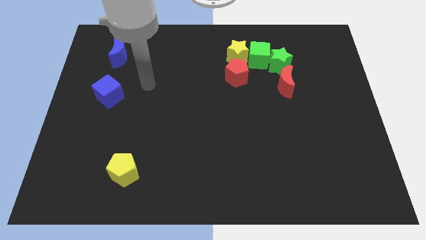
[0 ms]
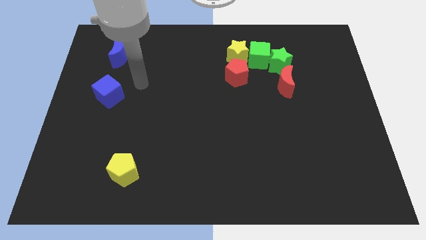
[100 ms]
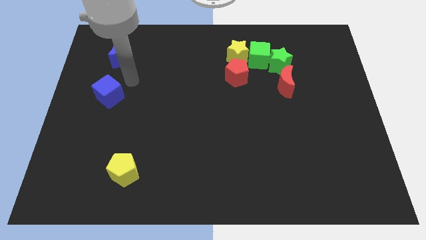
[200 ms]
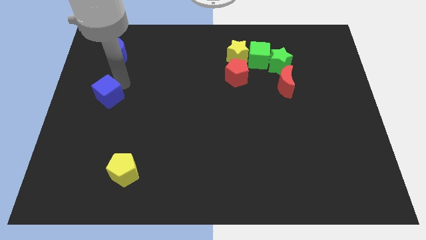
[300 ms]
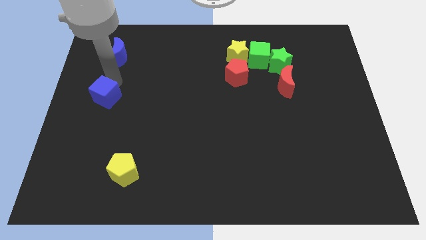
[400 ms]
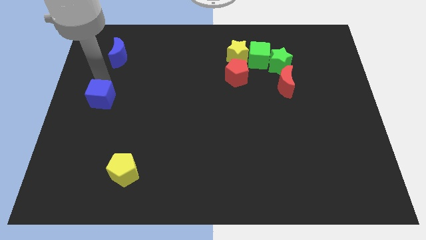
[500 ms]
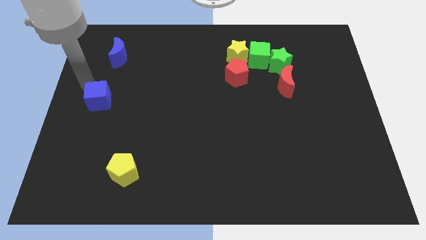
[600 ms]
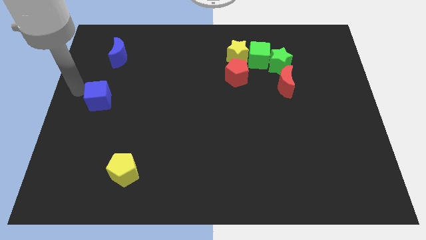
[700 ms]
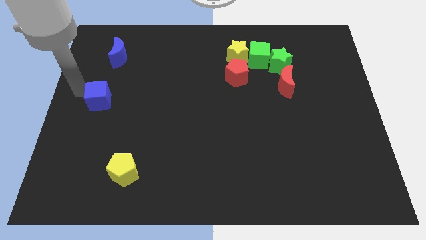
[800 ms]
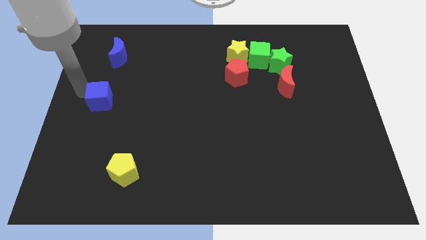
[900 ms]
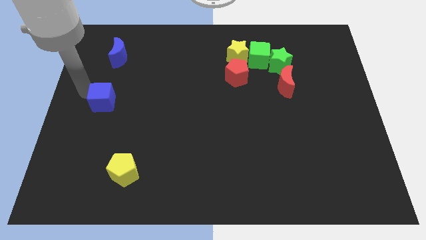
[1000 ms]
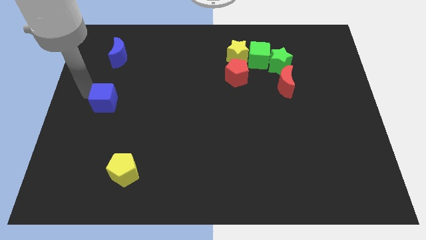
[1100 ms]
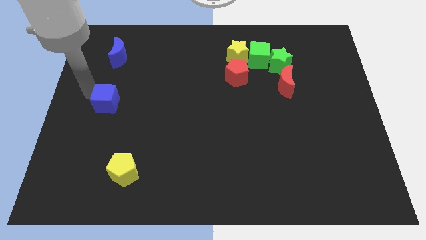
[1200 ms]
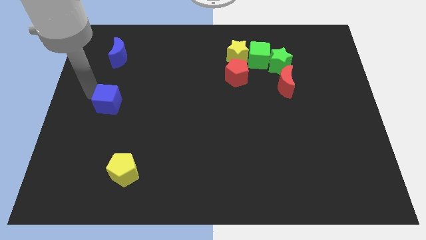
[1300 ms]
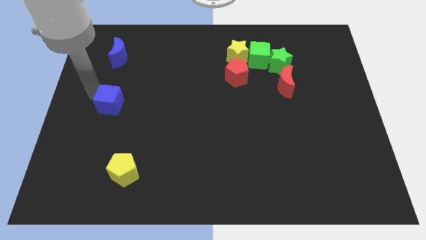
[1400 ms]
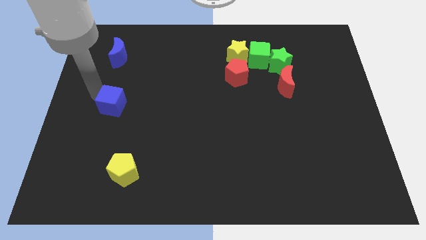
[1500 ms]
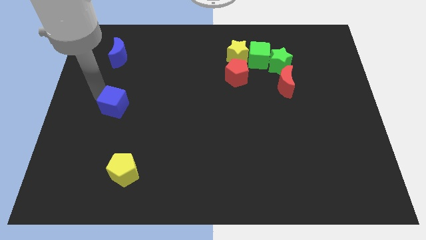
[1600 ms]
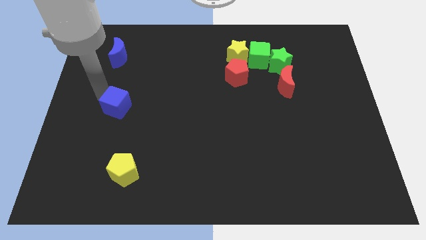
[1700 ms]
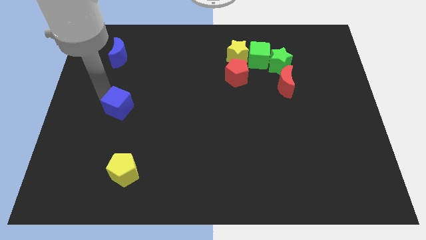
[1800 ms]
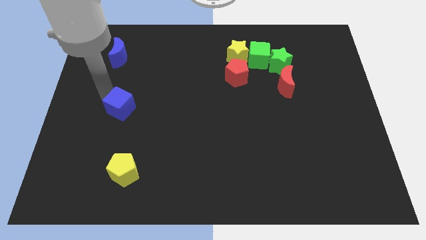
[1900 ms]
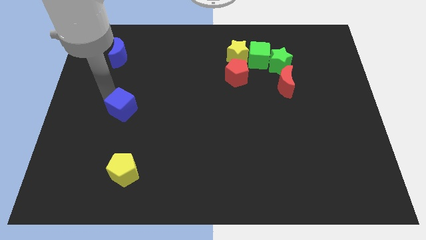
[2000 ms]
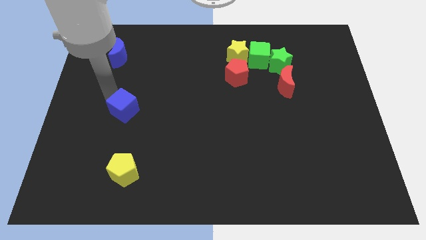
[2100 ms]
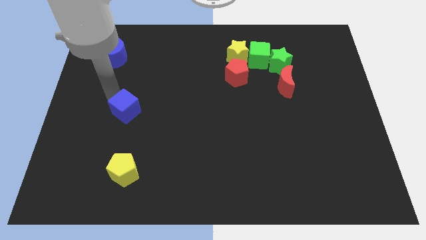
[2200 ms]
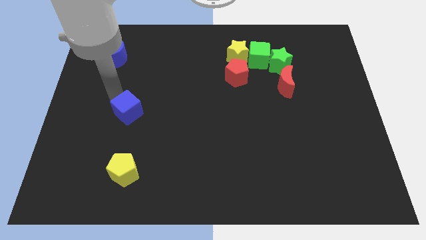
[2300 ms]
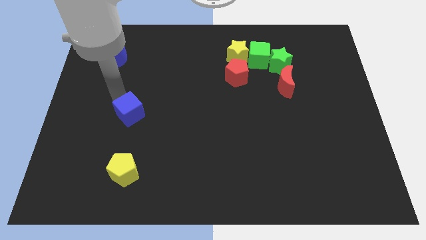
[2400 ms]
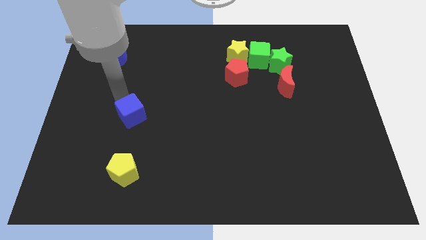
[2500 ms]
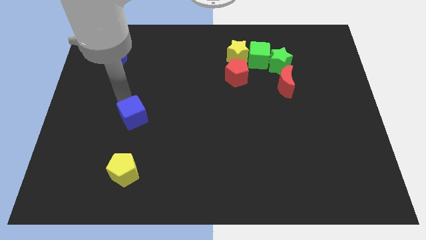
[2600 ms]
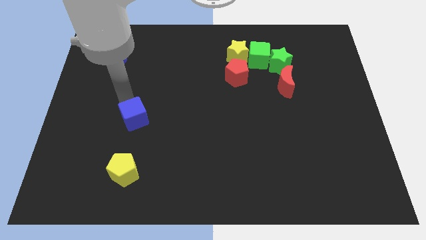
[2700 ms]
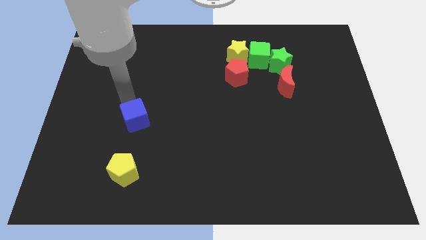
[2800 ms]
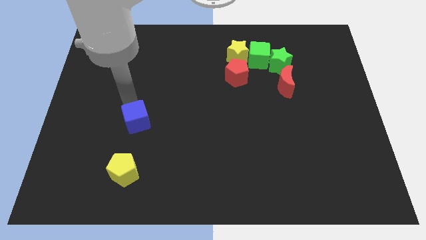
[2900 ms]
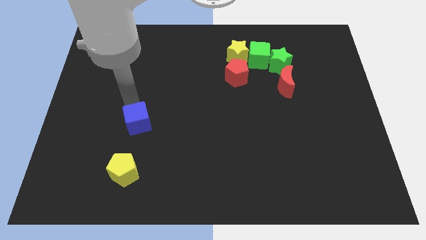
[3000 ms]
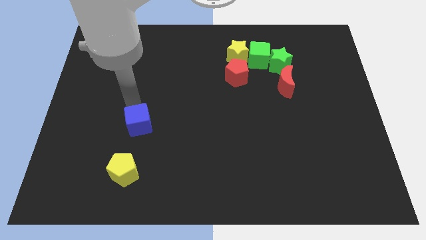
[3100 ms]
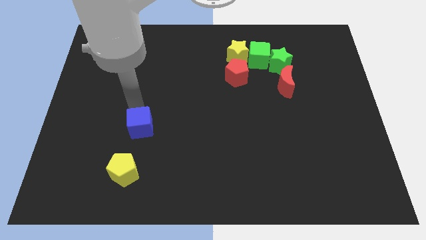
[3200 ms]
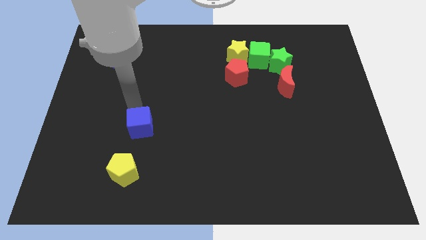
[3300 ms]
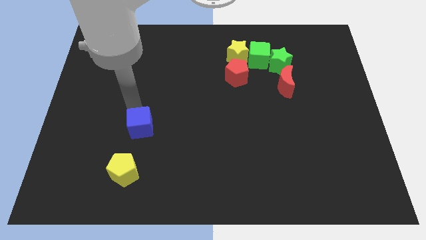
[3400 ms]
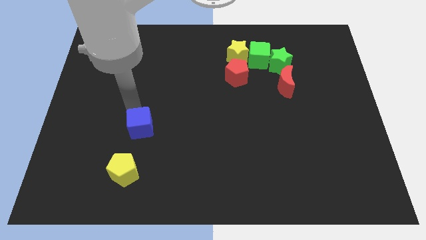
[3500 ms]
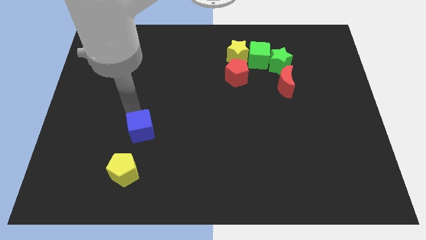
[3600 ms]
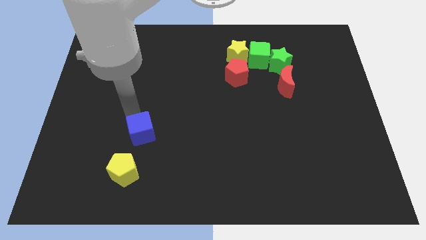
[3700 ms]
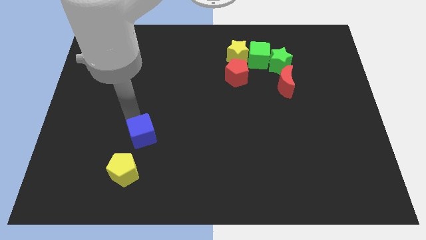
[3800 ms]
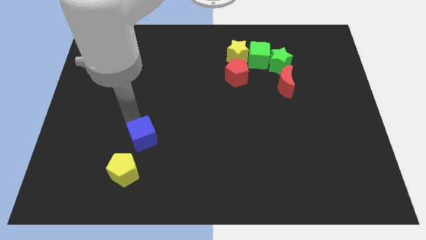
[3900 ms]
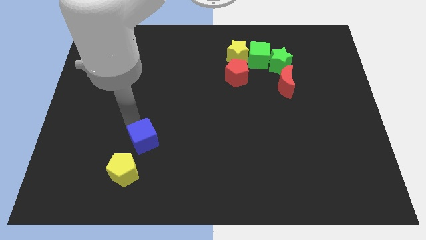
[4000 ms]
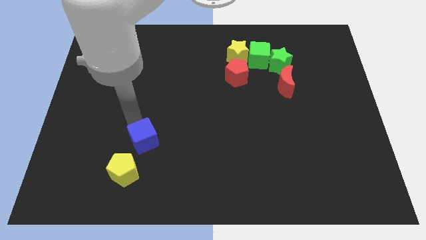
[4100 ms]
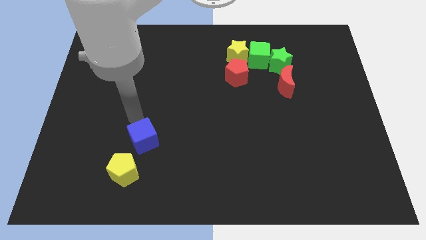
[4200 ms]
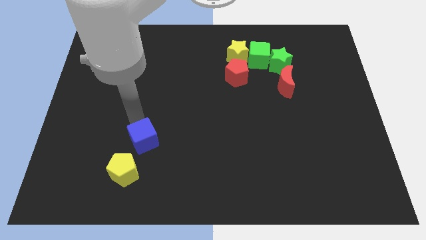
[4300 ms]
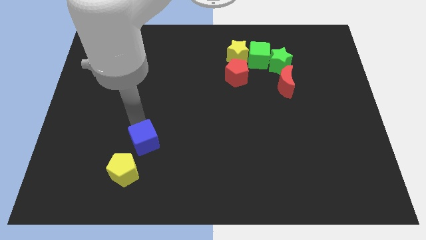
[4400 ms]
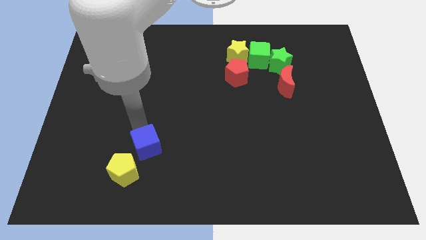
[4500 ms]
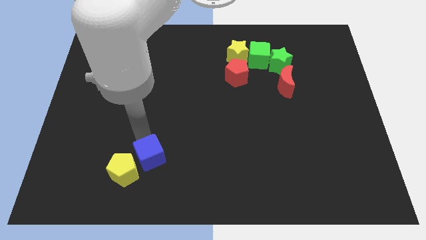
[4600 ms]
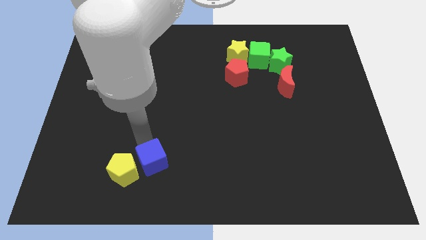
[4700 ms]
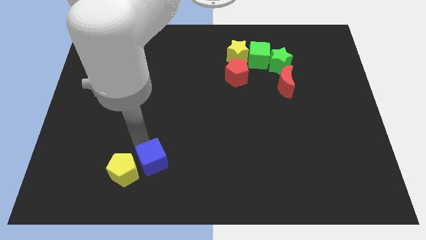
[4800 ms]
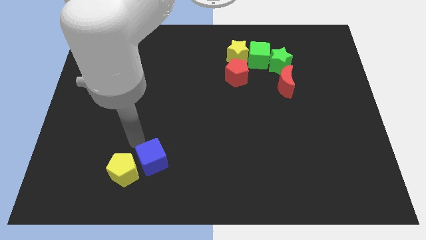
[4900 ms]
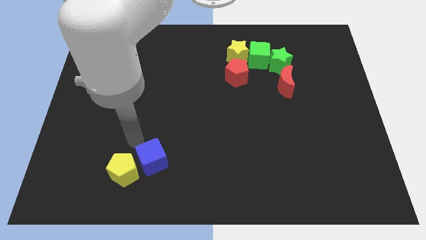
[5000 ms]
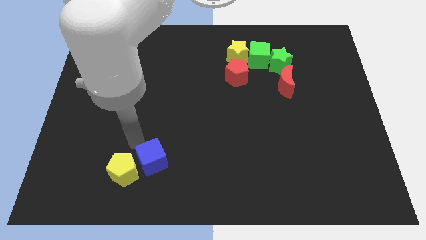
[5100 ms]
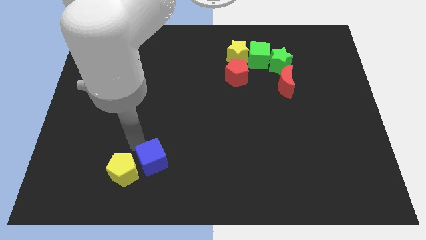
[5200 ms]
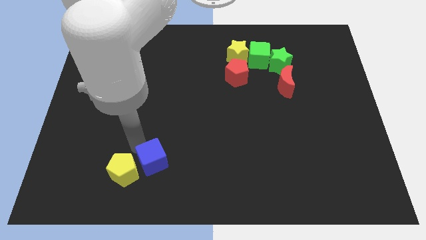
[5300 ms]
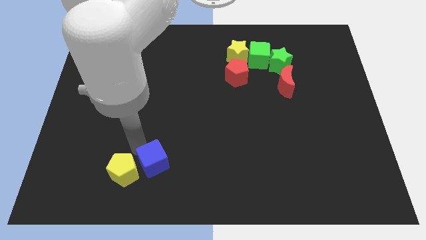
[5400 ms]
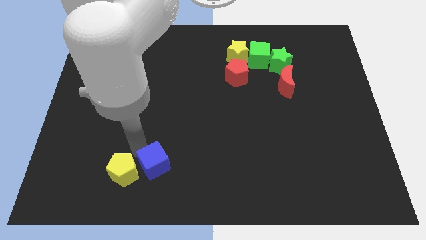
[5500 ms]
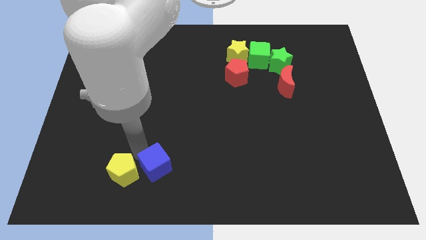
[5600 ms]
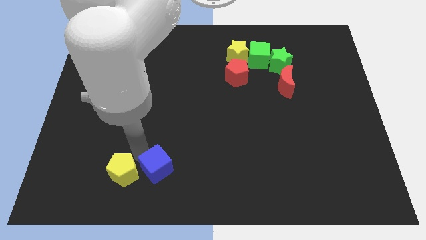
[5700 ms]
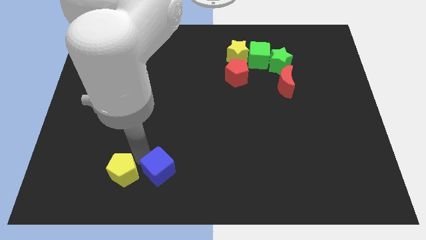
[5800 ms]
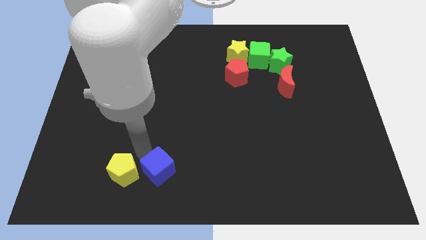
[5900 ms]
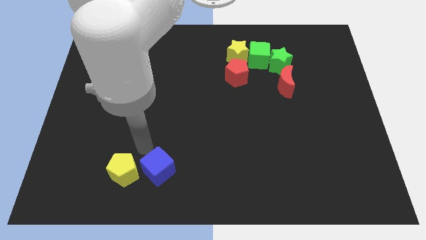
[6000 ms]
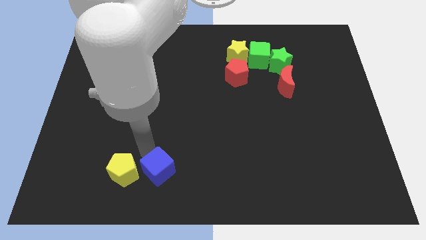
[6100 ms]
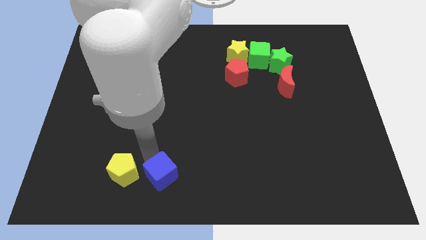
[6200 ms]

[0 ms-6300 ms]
put the blue cube to the bottom side
